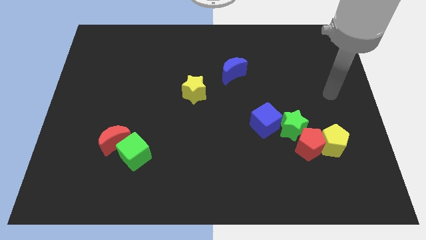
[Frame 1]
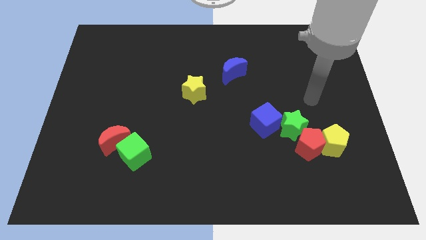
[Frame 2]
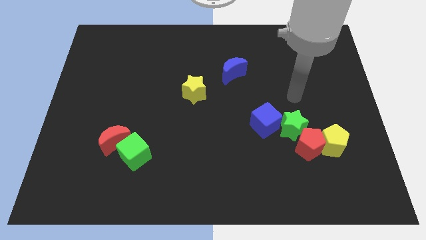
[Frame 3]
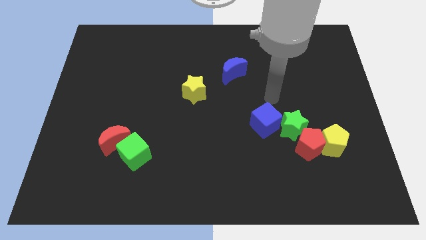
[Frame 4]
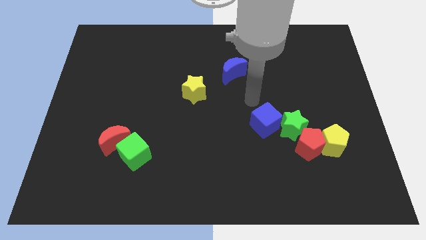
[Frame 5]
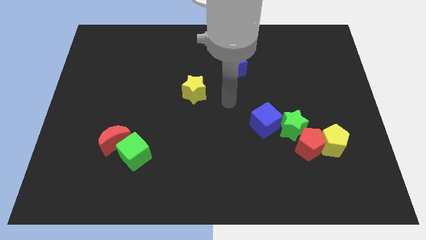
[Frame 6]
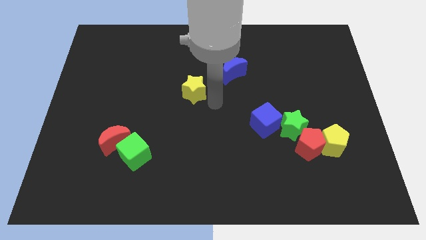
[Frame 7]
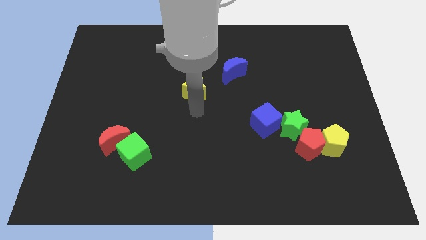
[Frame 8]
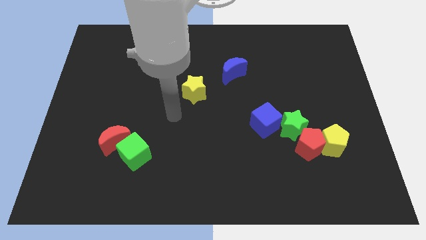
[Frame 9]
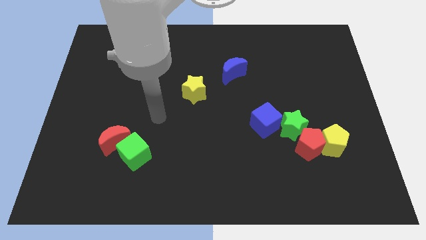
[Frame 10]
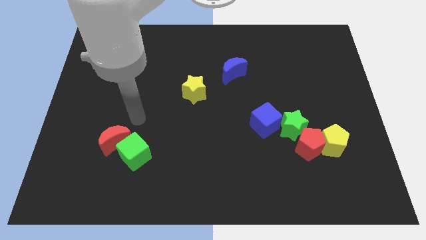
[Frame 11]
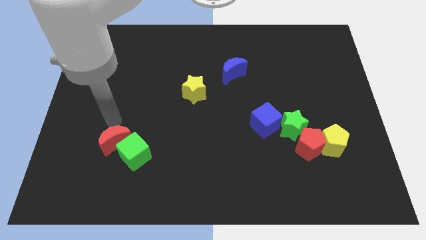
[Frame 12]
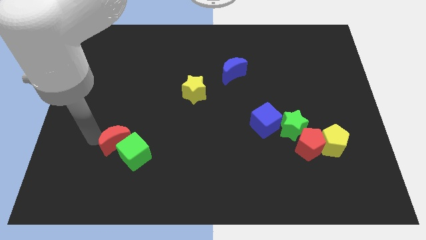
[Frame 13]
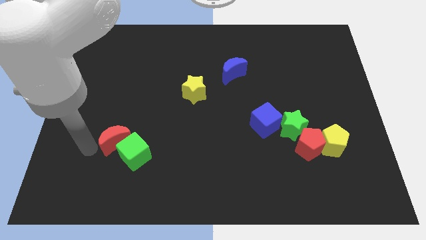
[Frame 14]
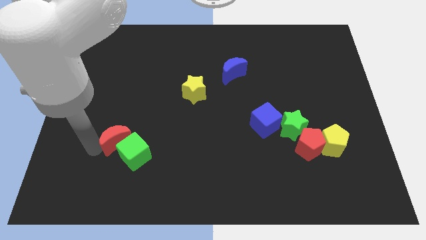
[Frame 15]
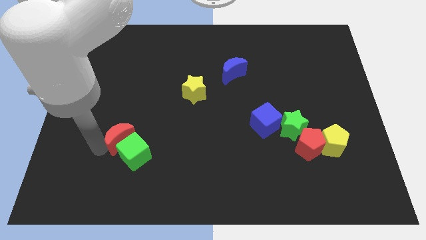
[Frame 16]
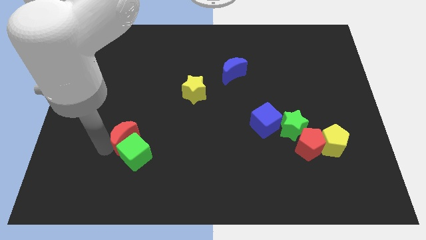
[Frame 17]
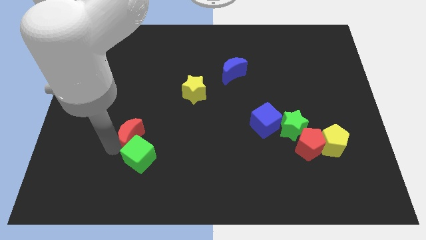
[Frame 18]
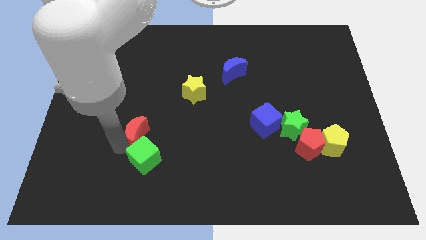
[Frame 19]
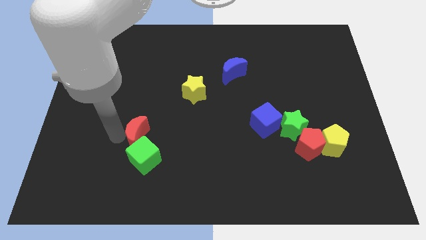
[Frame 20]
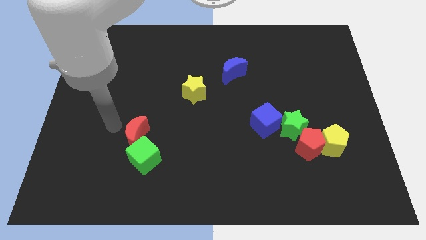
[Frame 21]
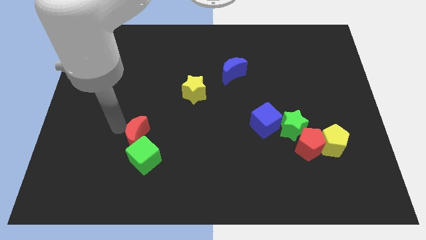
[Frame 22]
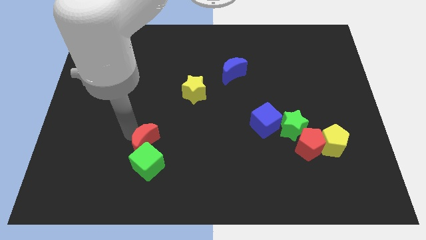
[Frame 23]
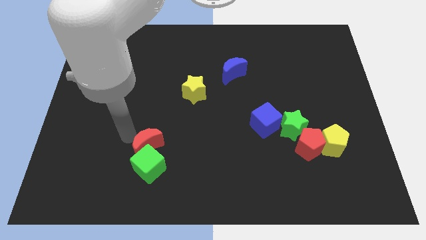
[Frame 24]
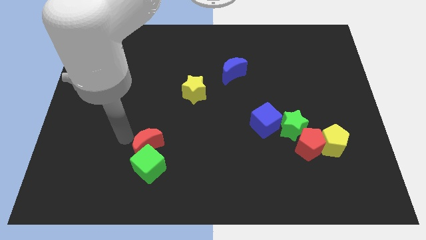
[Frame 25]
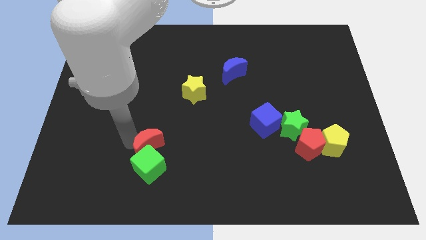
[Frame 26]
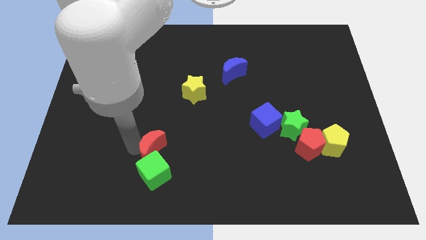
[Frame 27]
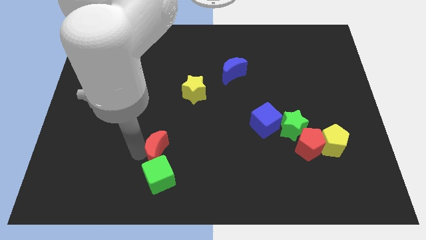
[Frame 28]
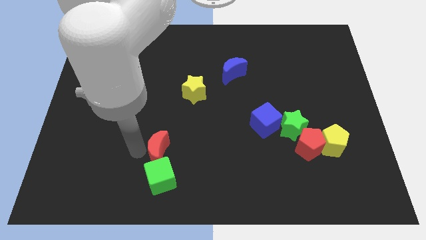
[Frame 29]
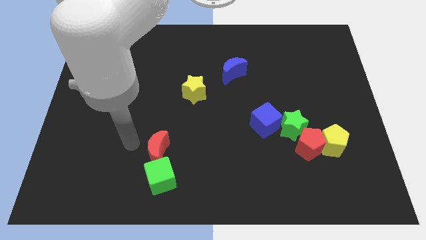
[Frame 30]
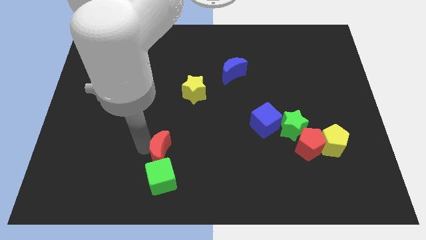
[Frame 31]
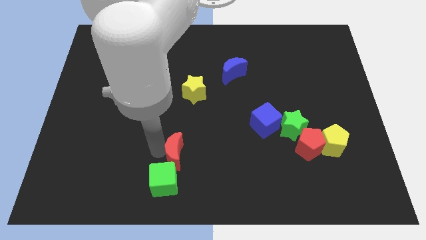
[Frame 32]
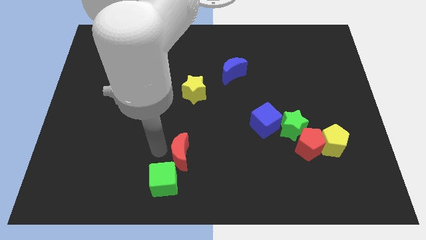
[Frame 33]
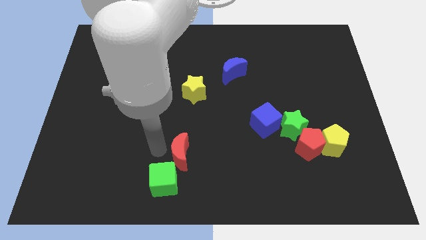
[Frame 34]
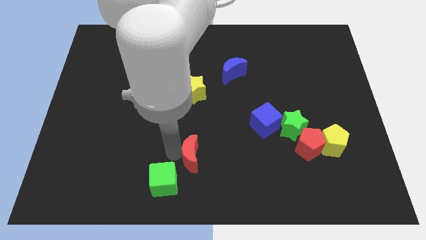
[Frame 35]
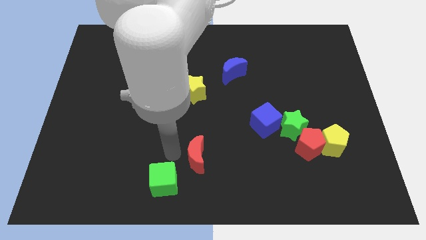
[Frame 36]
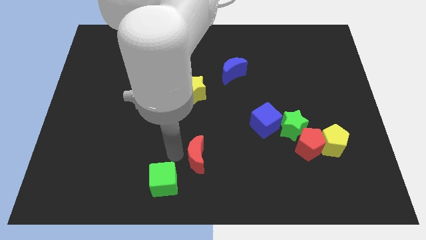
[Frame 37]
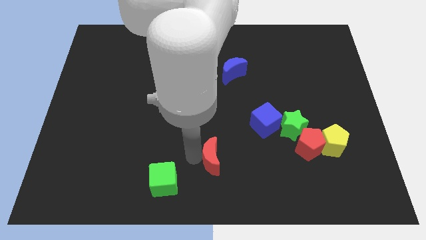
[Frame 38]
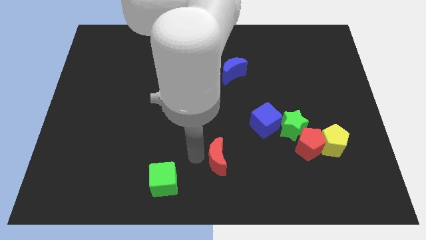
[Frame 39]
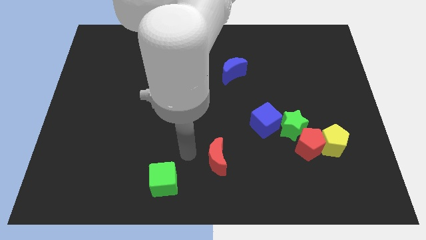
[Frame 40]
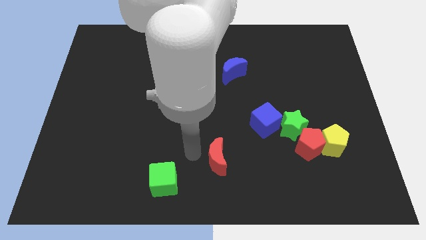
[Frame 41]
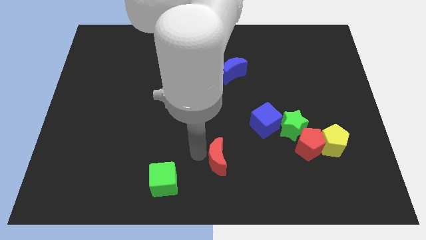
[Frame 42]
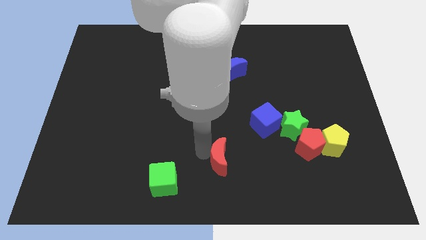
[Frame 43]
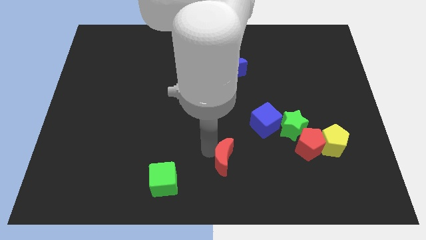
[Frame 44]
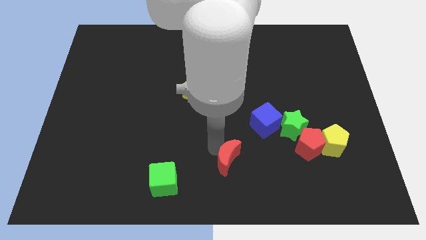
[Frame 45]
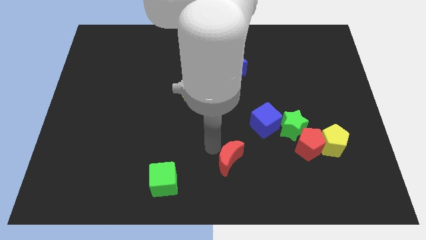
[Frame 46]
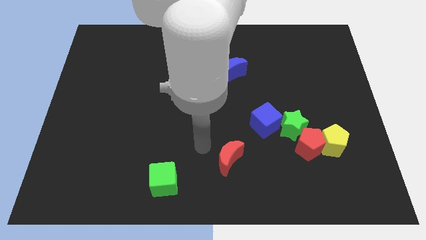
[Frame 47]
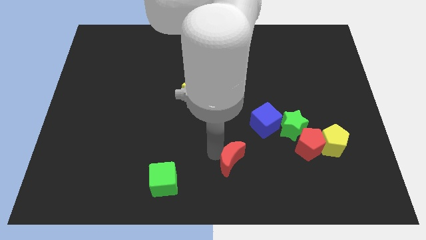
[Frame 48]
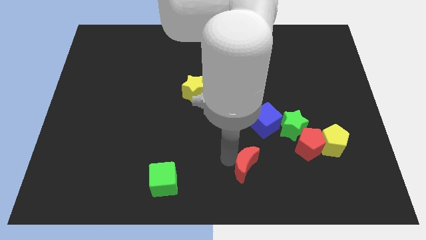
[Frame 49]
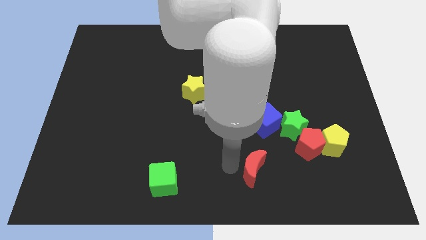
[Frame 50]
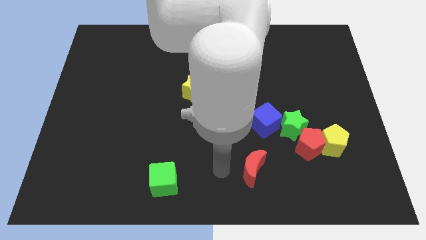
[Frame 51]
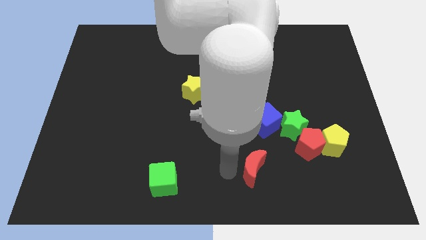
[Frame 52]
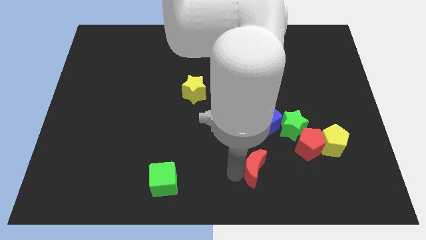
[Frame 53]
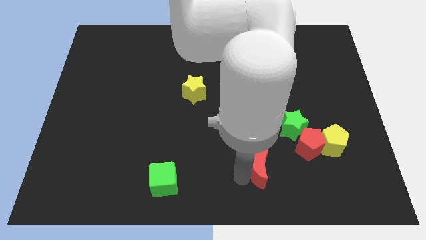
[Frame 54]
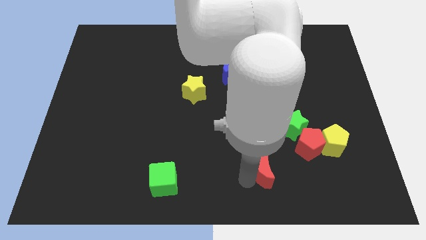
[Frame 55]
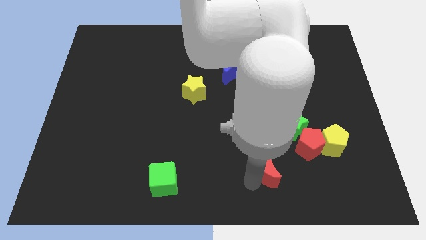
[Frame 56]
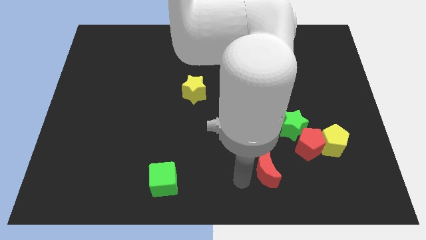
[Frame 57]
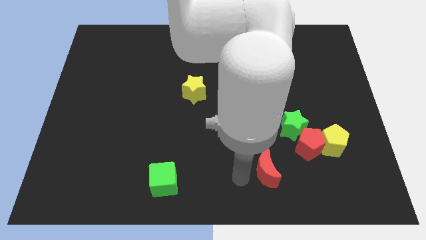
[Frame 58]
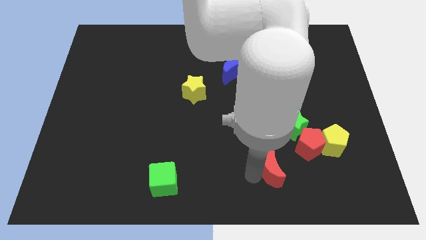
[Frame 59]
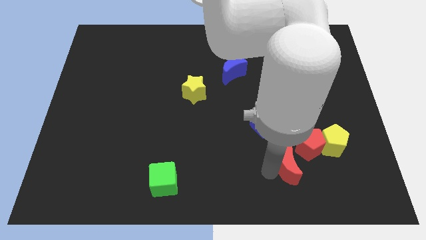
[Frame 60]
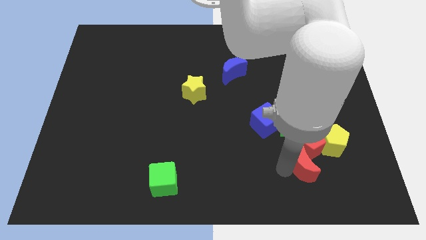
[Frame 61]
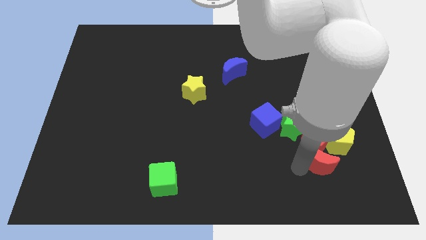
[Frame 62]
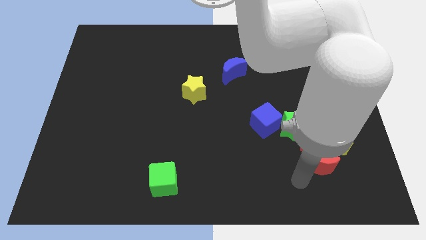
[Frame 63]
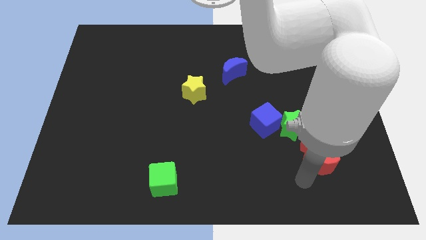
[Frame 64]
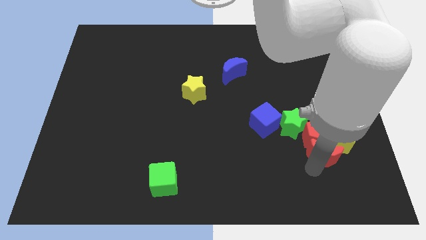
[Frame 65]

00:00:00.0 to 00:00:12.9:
put the red moon to the yellow pentagon

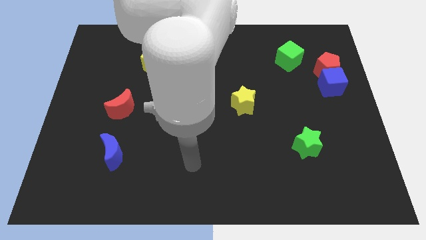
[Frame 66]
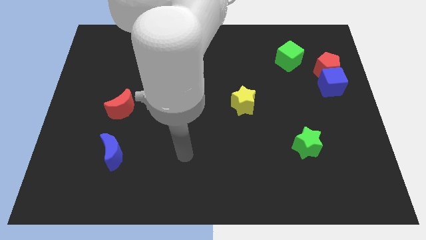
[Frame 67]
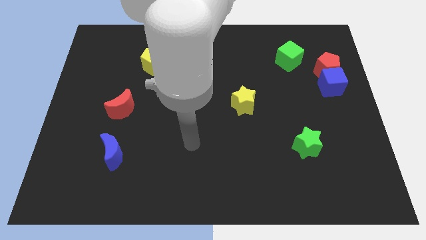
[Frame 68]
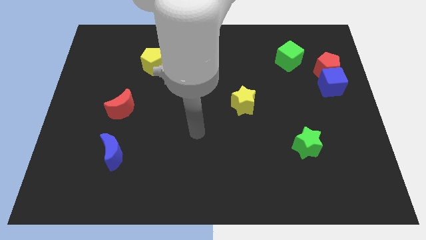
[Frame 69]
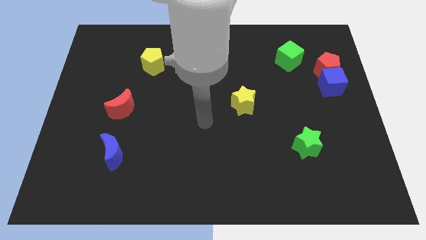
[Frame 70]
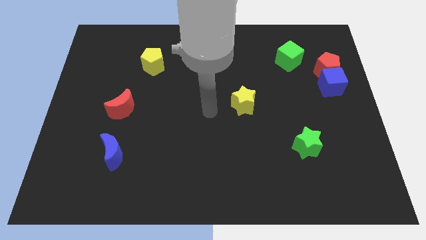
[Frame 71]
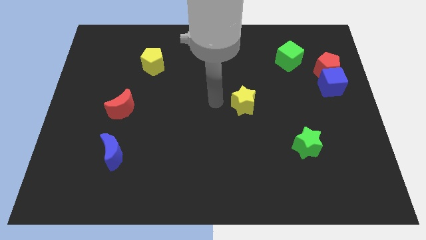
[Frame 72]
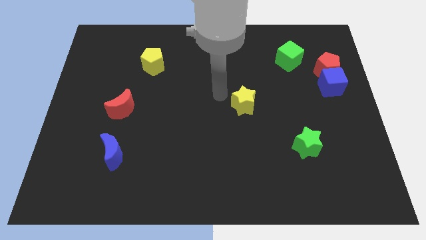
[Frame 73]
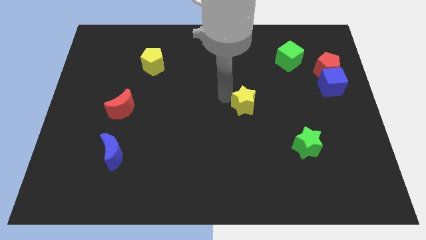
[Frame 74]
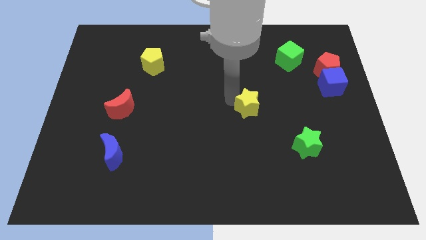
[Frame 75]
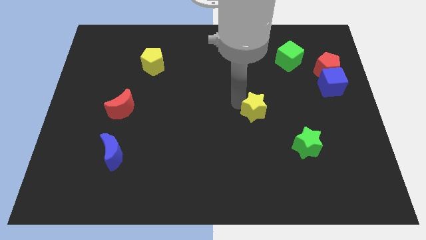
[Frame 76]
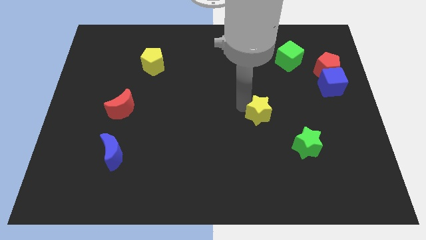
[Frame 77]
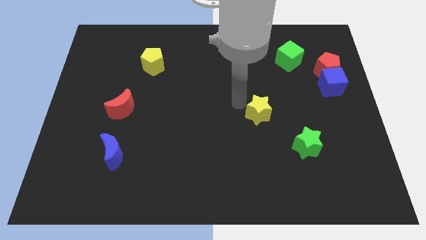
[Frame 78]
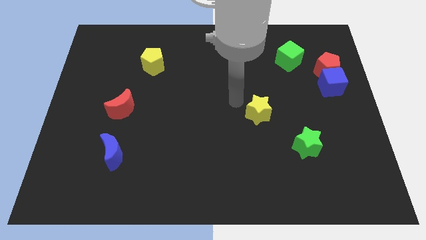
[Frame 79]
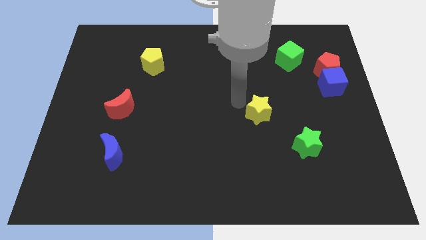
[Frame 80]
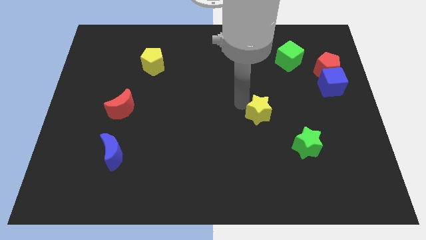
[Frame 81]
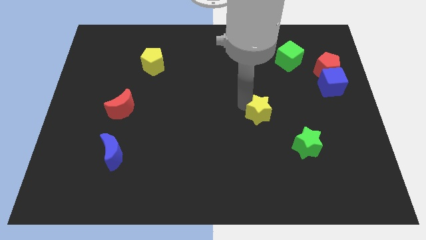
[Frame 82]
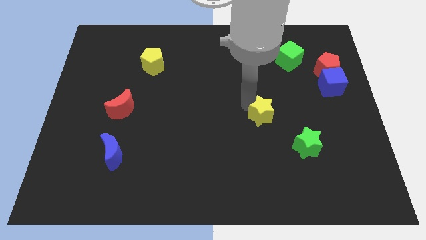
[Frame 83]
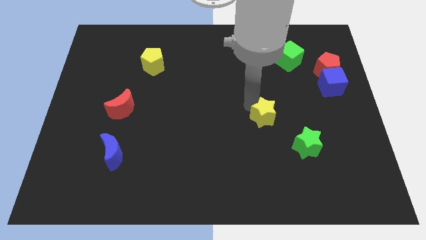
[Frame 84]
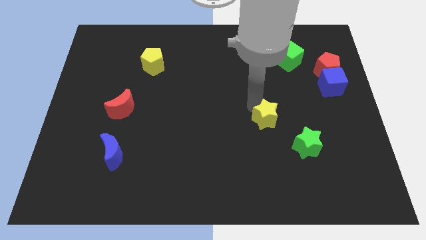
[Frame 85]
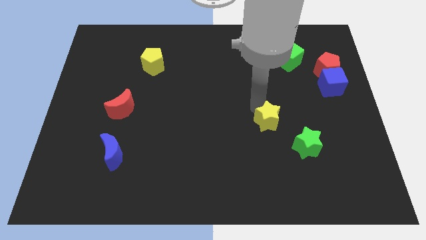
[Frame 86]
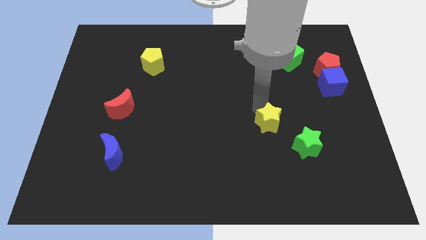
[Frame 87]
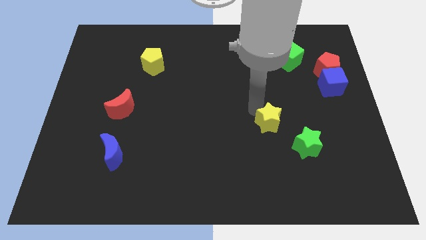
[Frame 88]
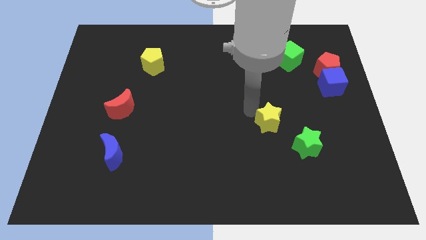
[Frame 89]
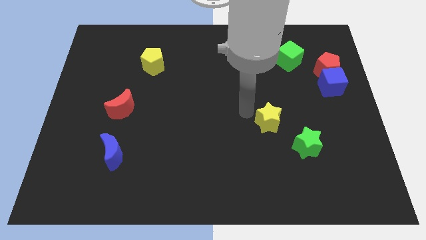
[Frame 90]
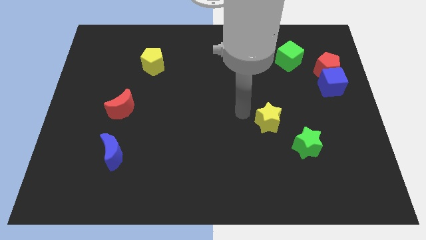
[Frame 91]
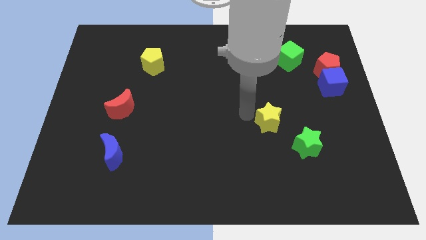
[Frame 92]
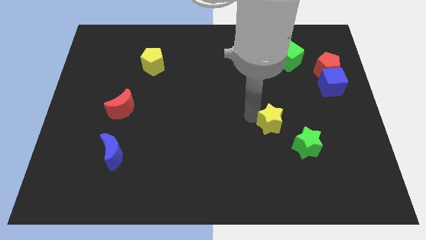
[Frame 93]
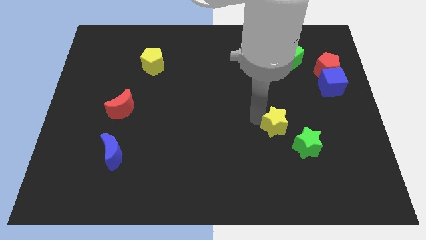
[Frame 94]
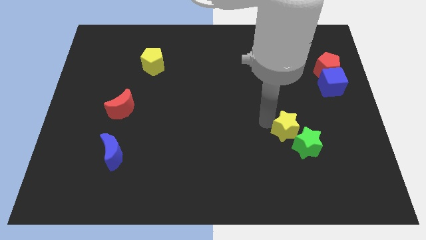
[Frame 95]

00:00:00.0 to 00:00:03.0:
move the yellow star towards the green star
